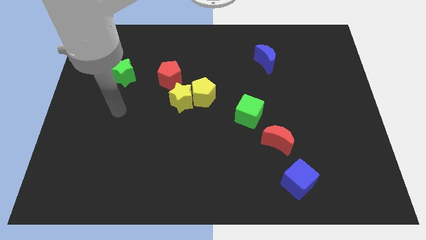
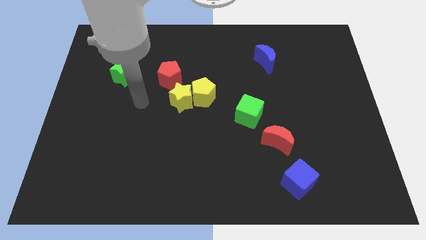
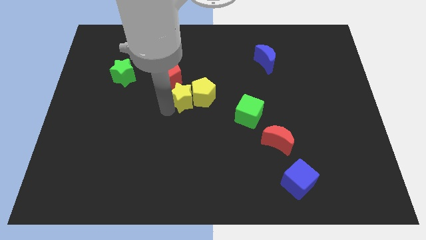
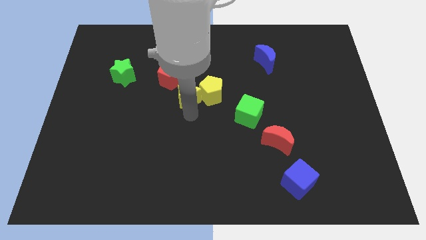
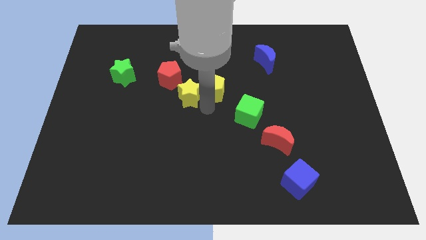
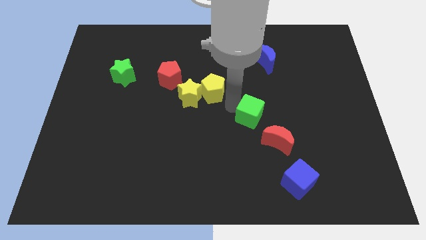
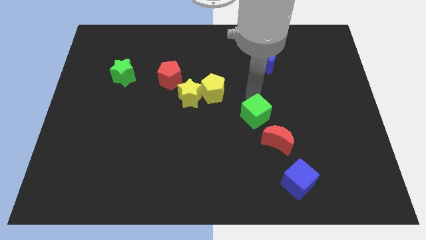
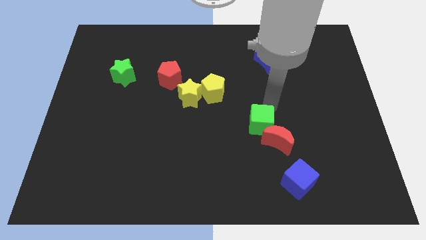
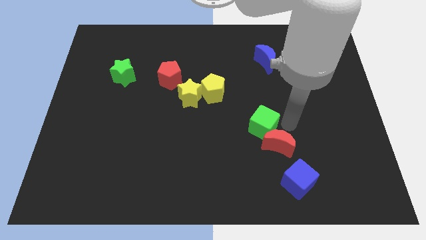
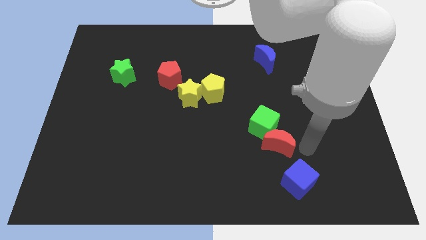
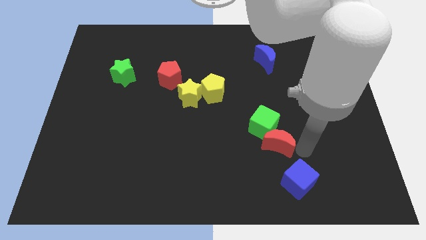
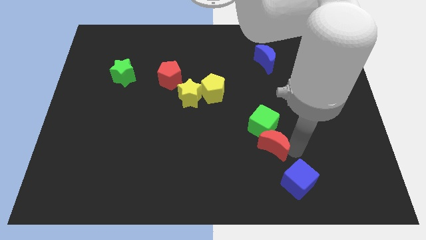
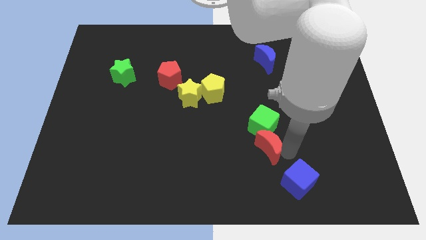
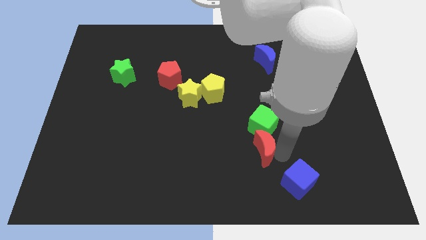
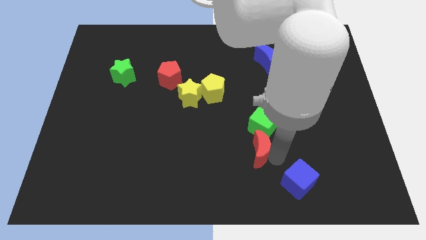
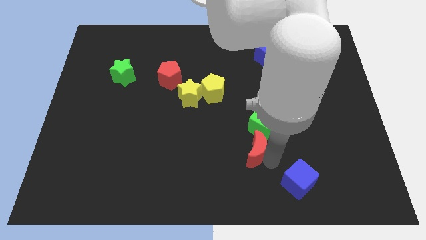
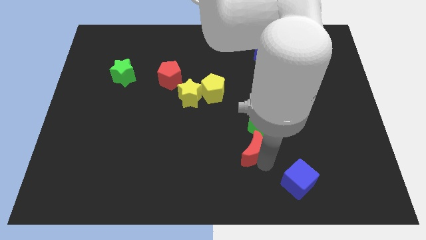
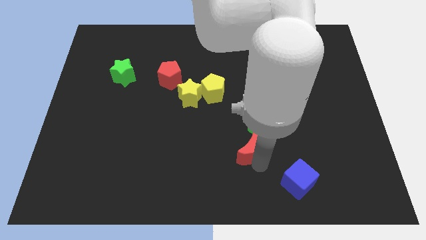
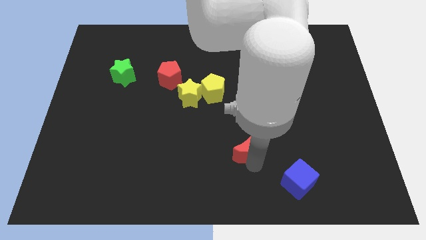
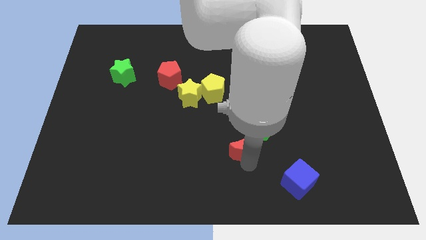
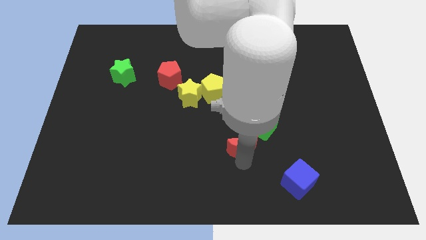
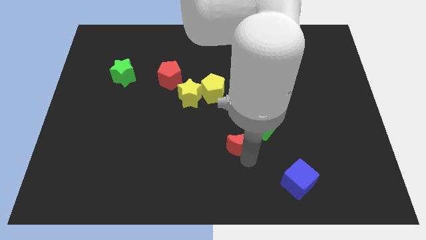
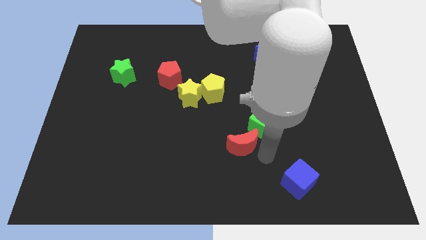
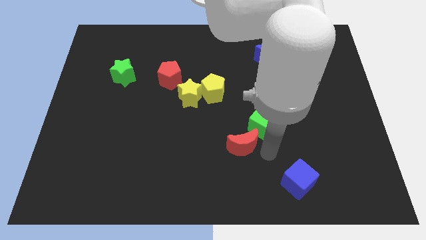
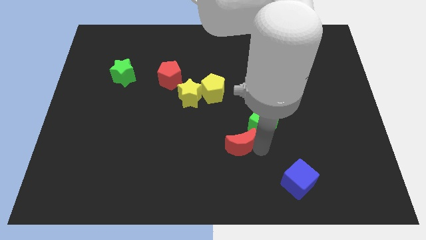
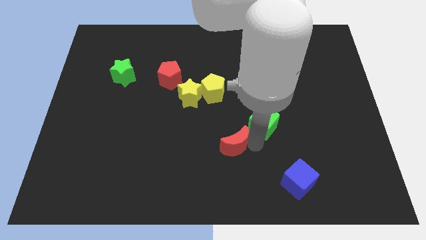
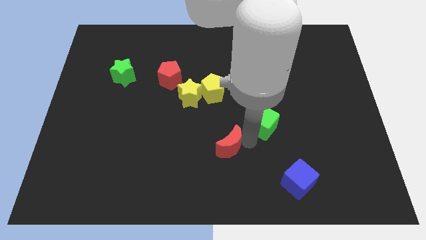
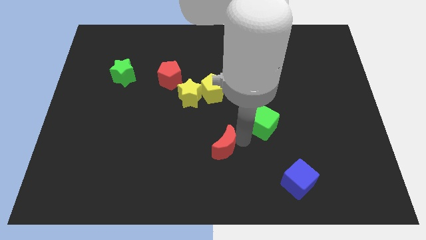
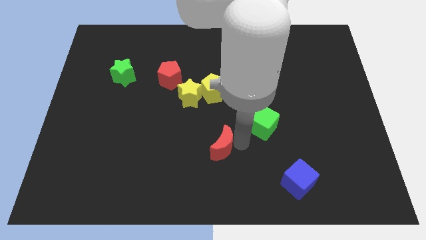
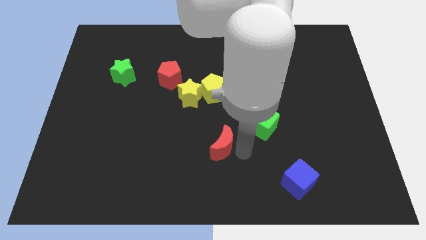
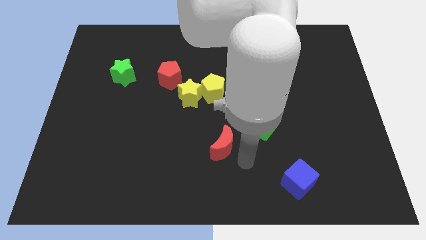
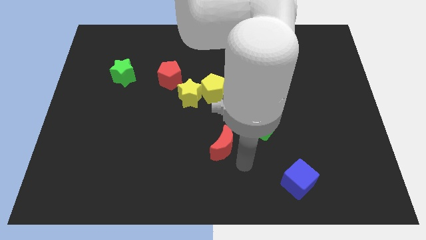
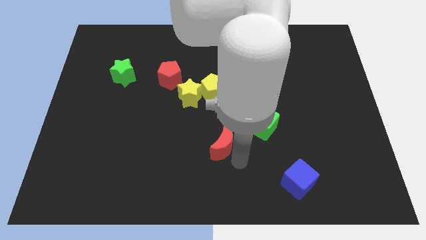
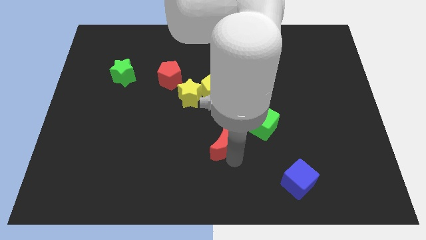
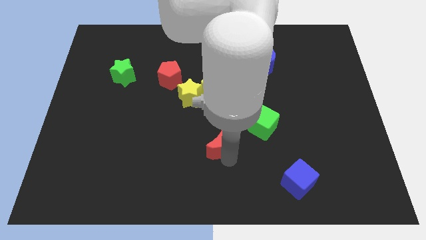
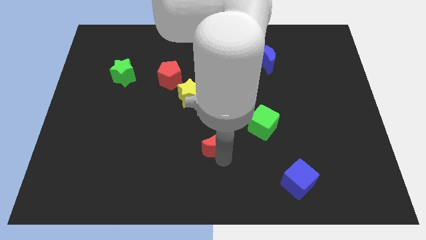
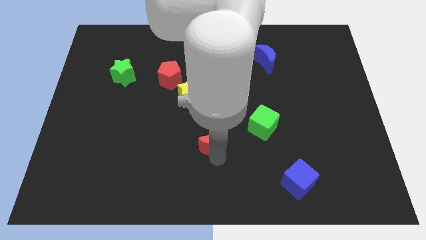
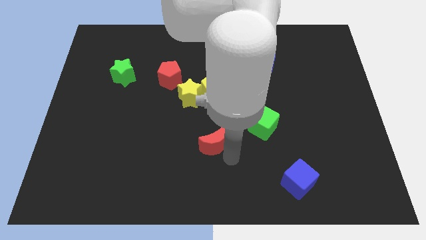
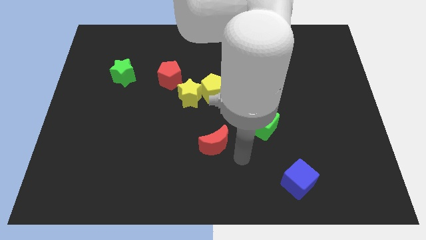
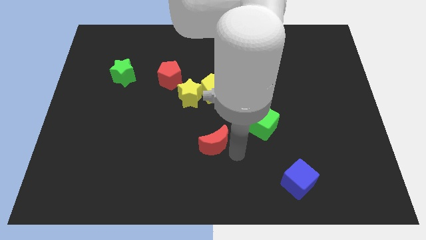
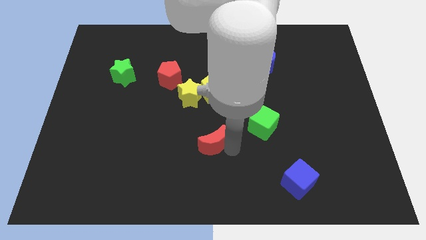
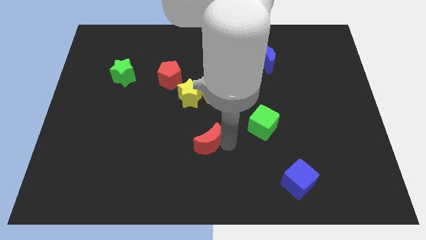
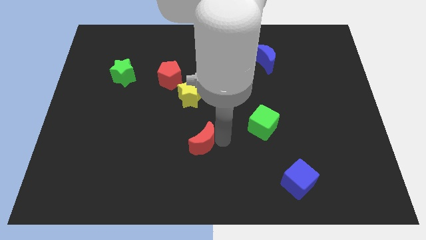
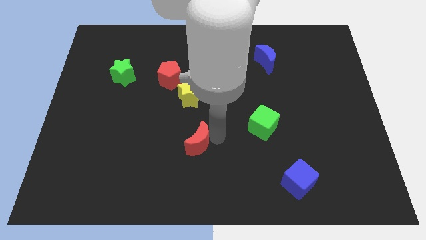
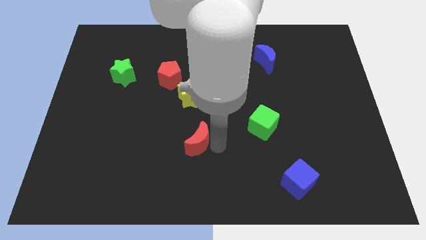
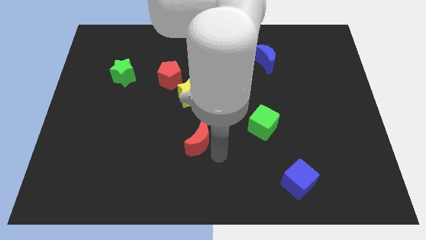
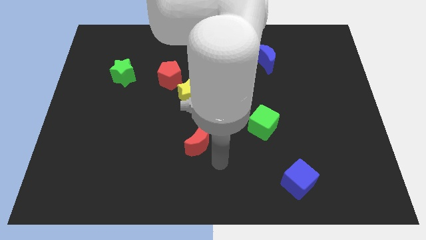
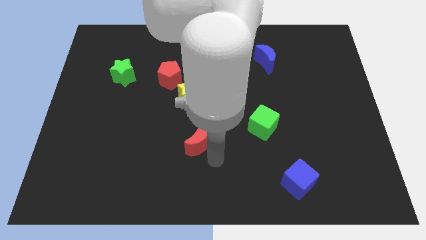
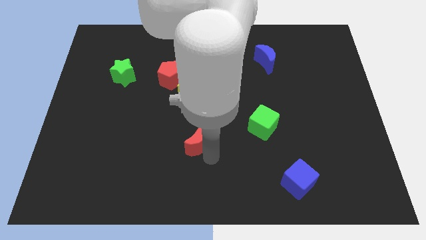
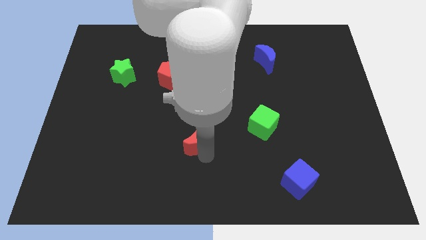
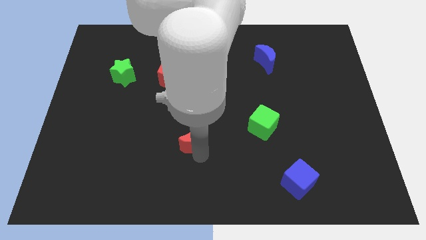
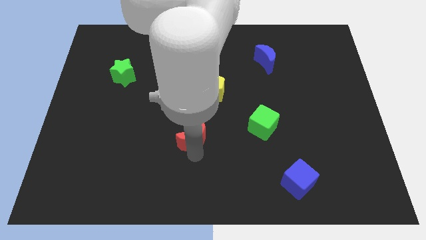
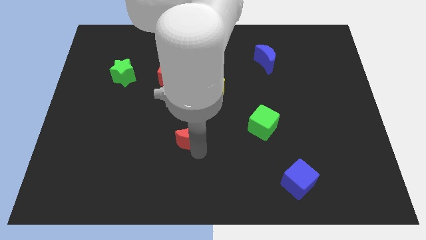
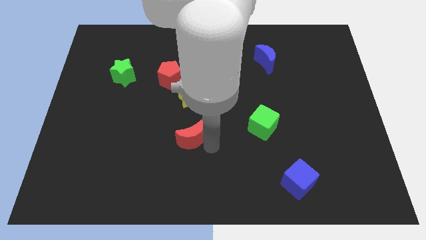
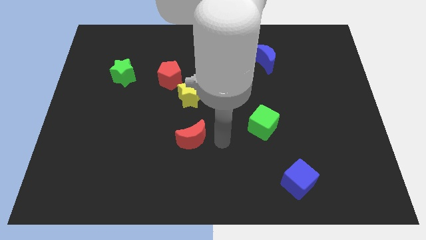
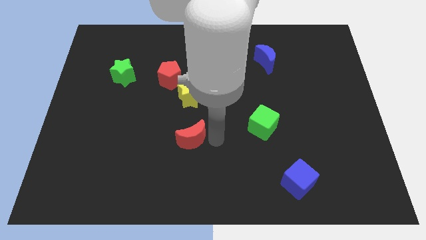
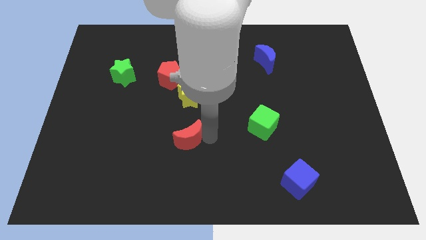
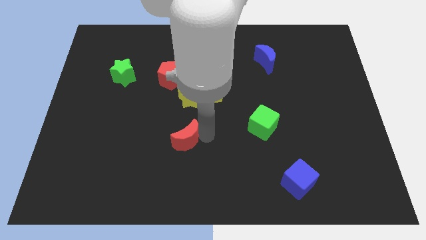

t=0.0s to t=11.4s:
slide the red moon left

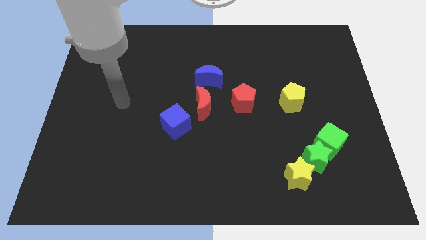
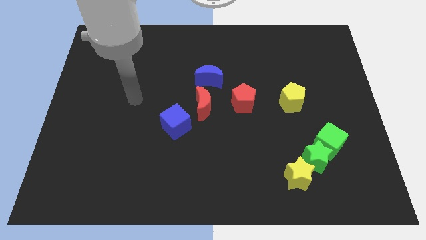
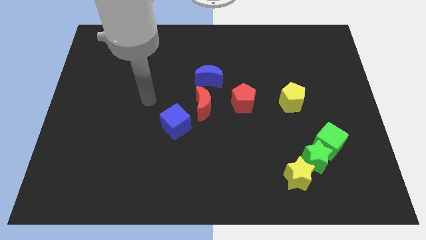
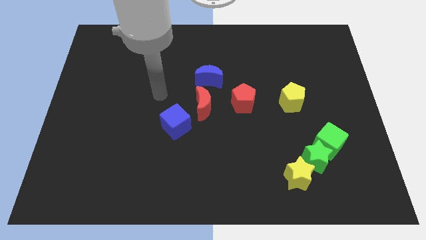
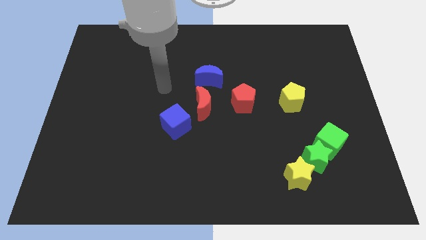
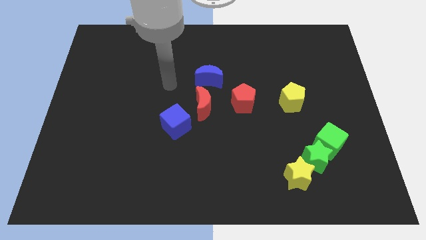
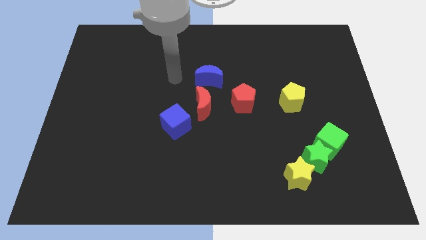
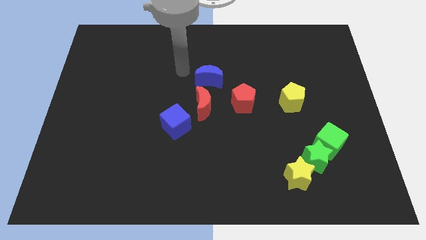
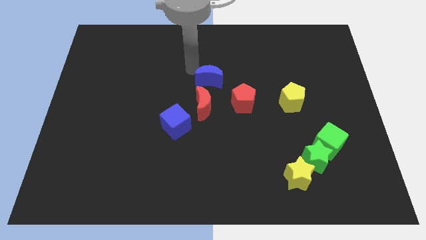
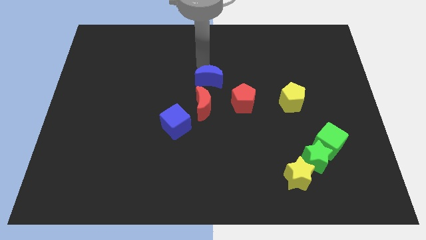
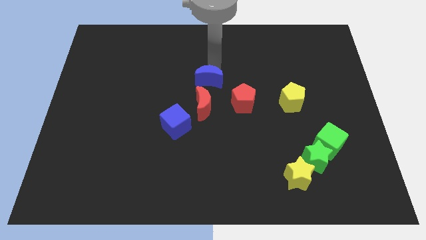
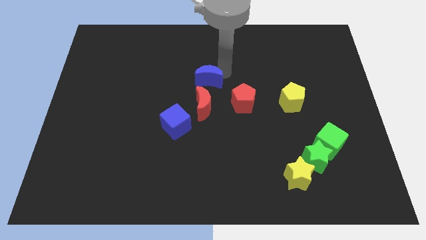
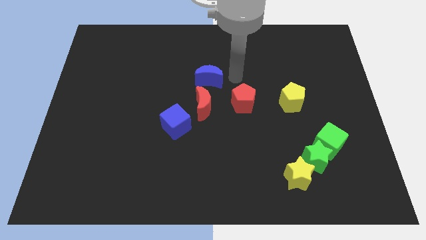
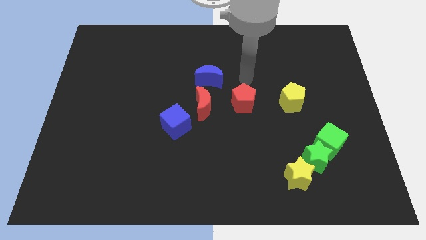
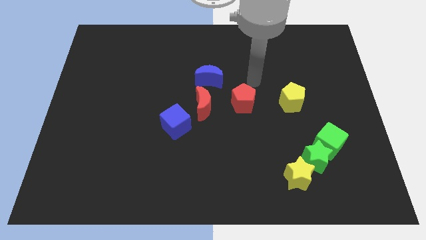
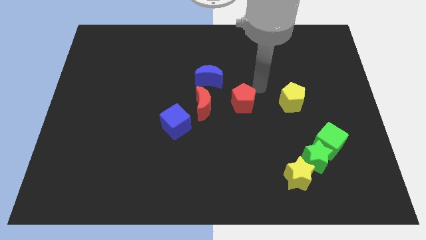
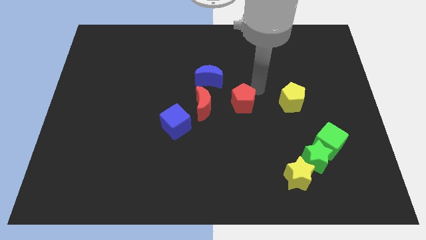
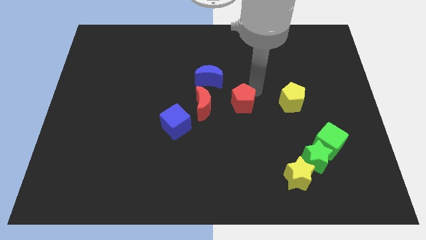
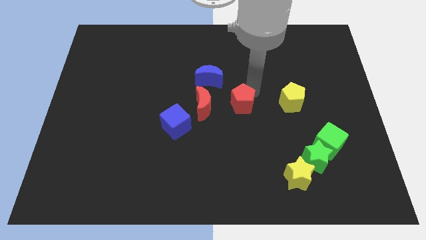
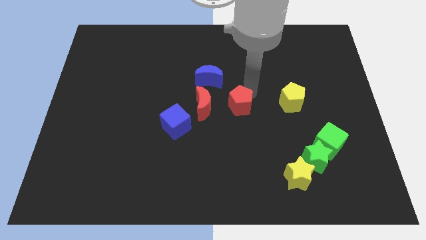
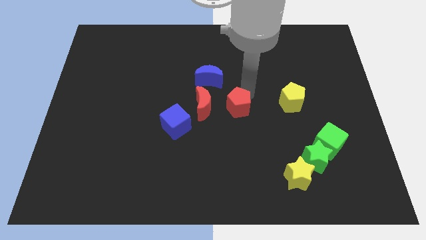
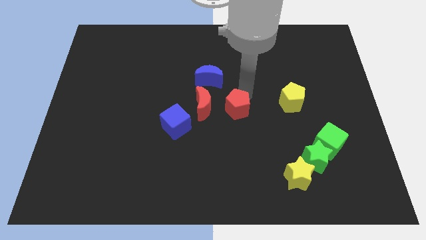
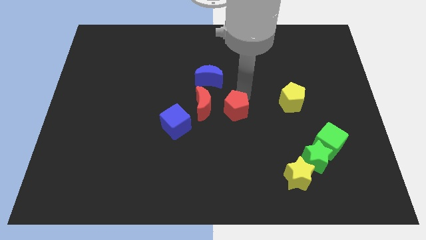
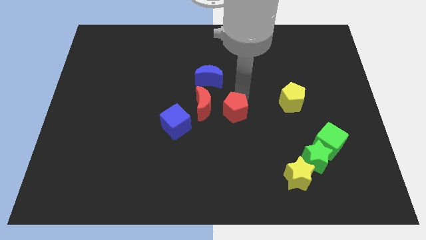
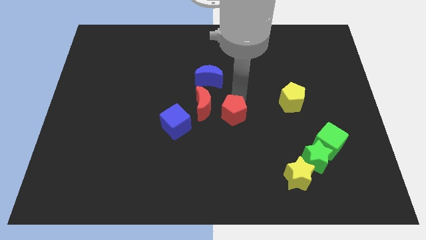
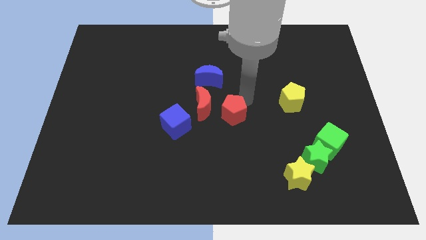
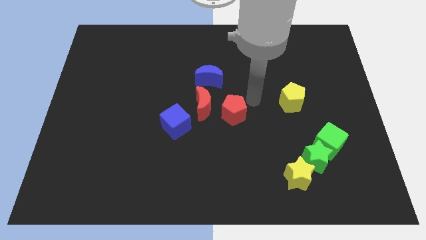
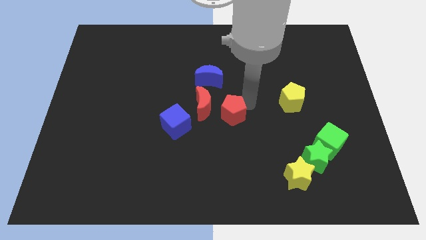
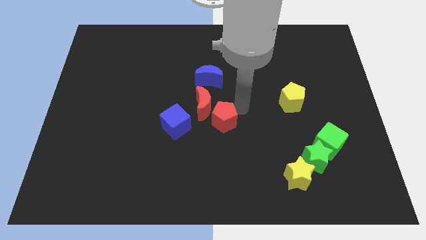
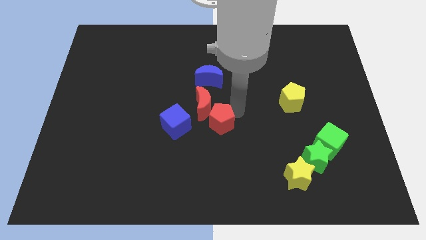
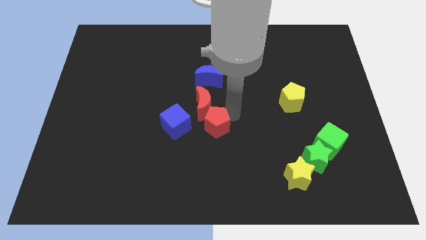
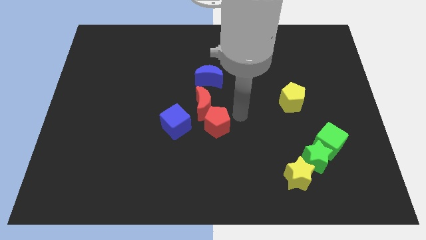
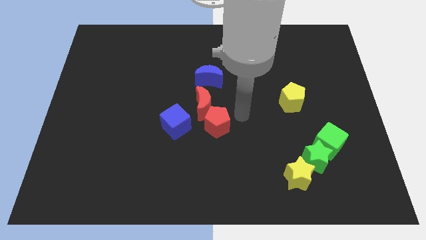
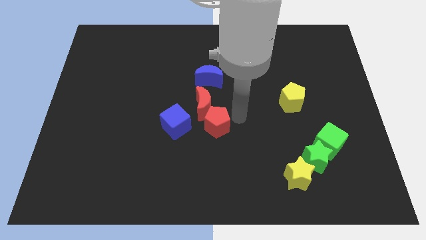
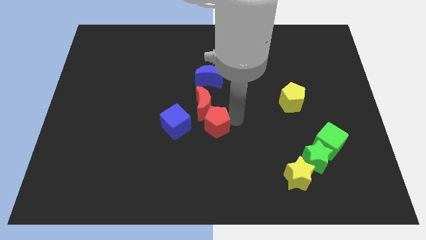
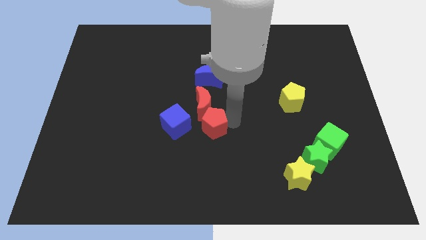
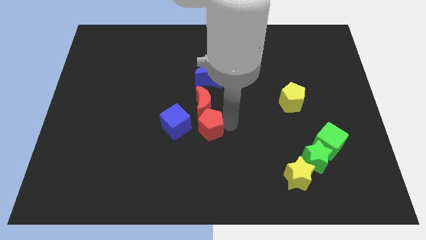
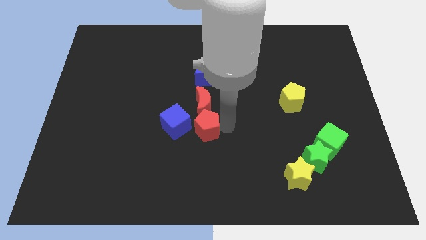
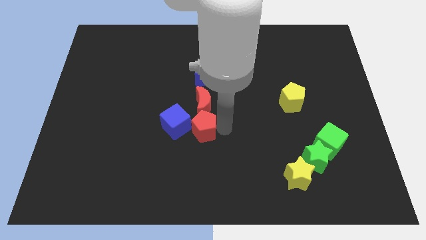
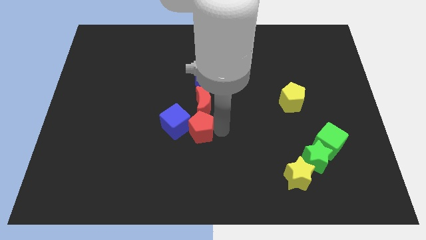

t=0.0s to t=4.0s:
move the red pentagon a little to the left
